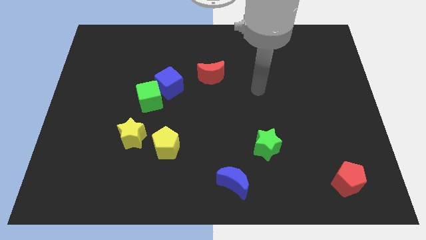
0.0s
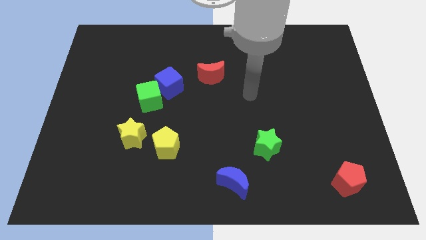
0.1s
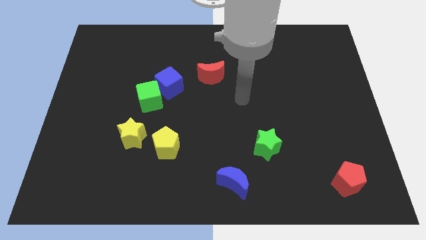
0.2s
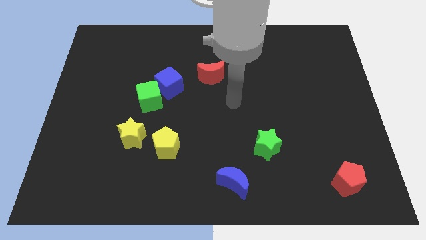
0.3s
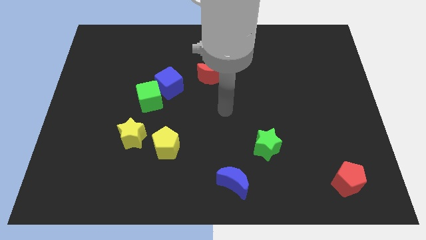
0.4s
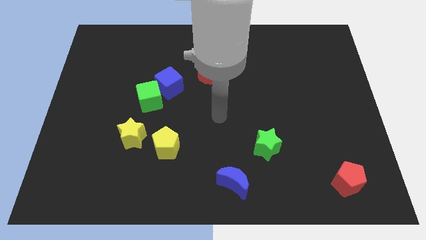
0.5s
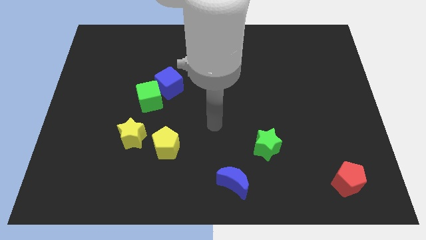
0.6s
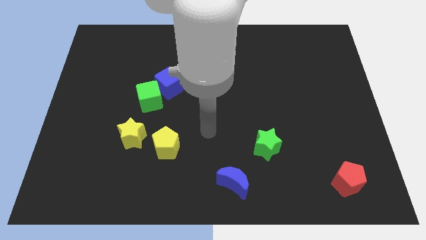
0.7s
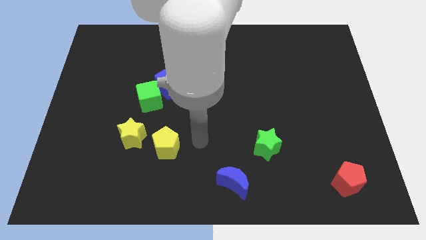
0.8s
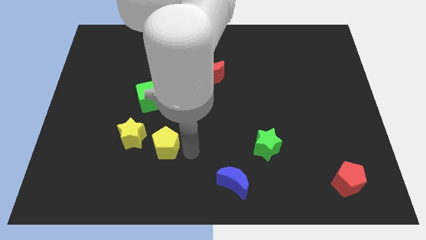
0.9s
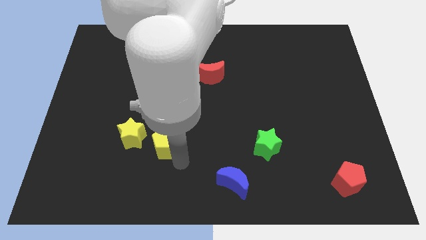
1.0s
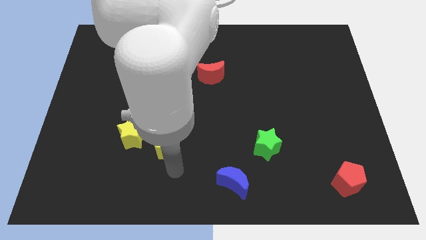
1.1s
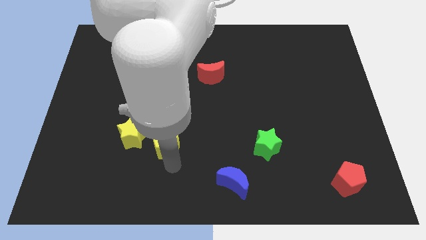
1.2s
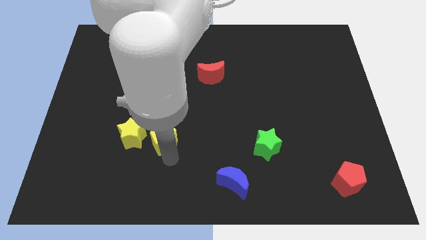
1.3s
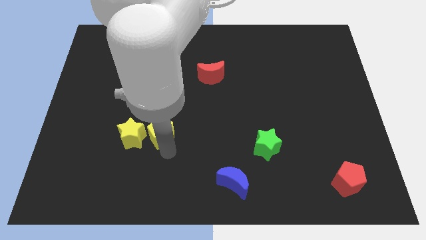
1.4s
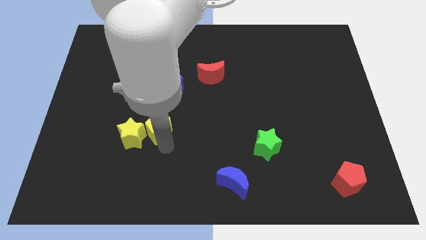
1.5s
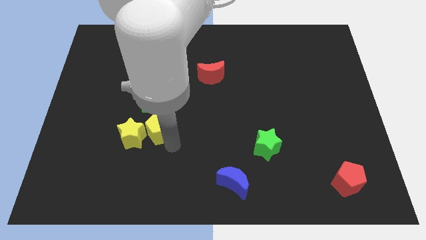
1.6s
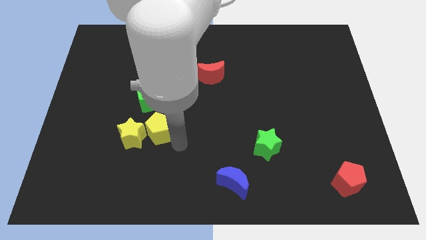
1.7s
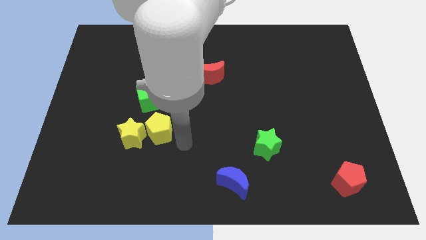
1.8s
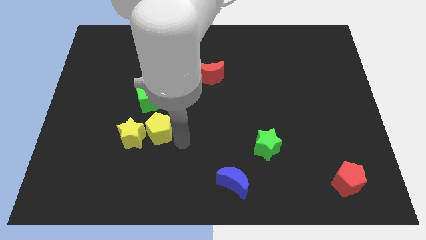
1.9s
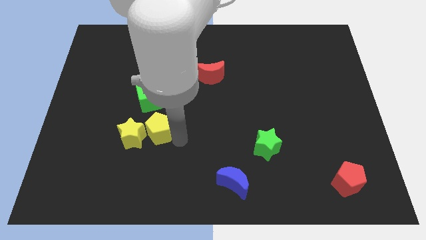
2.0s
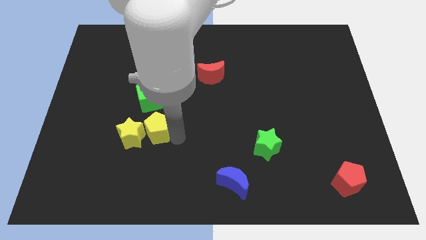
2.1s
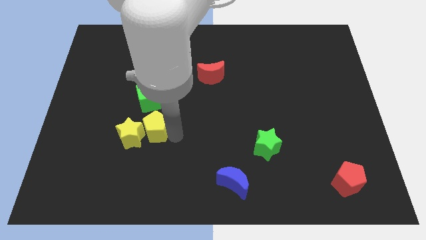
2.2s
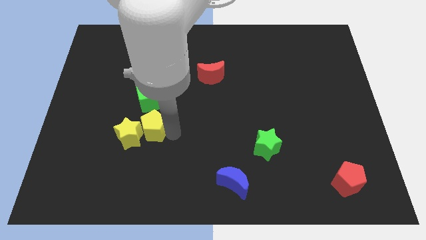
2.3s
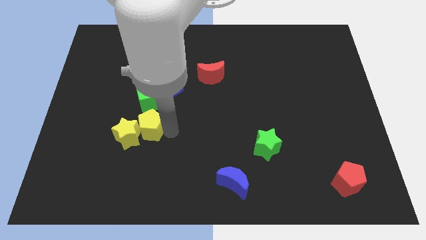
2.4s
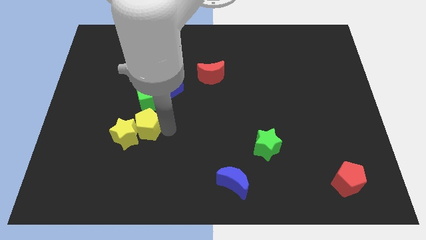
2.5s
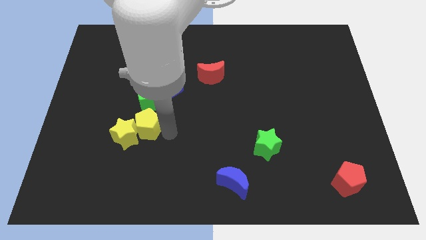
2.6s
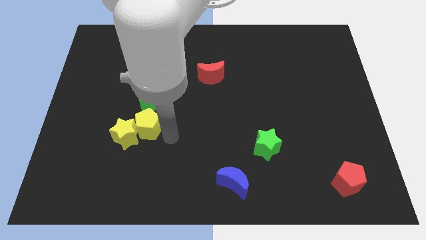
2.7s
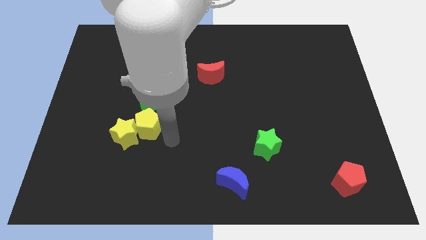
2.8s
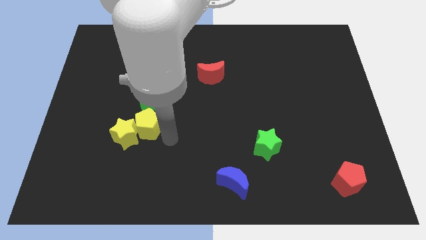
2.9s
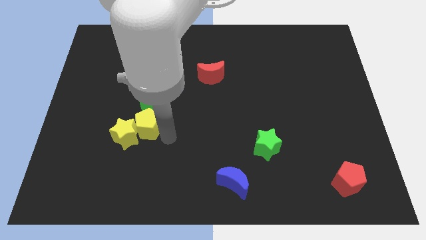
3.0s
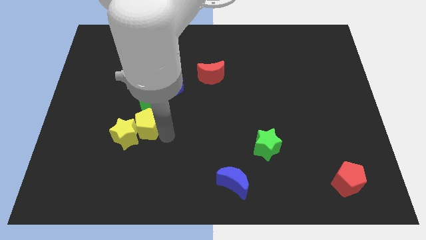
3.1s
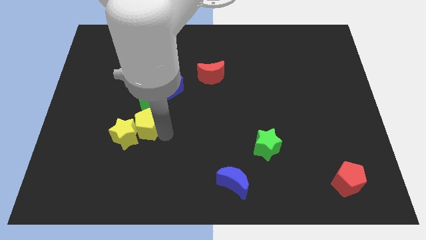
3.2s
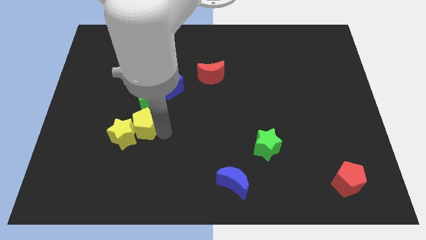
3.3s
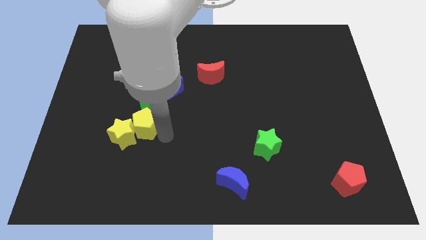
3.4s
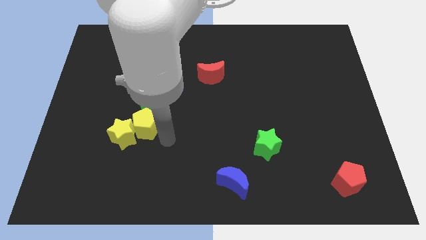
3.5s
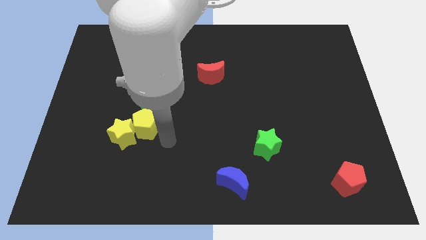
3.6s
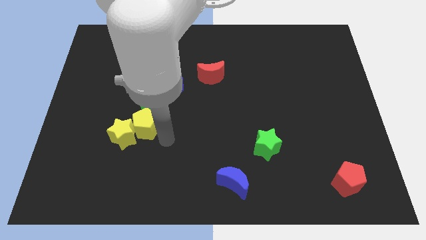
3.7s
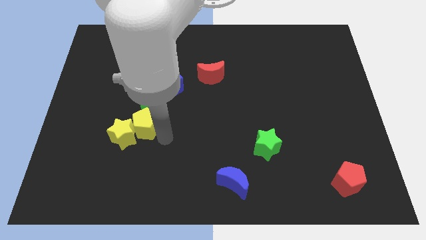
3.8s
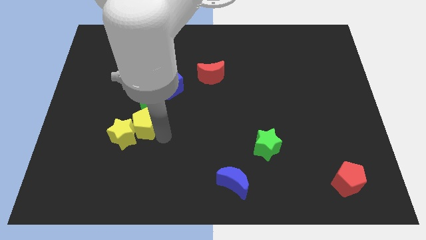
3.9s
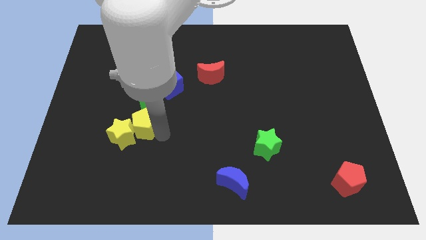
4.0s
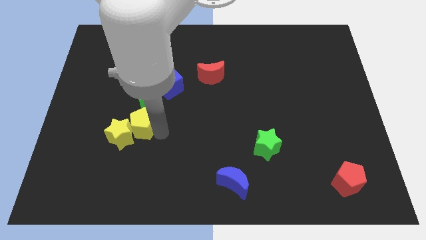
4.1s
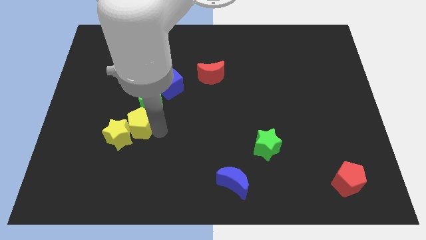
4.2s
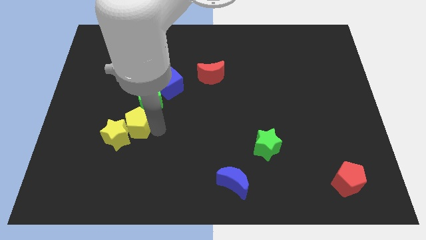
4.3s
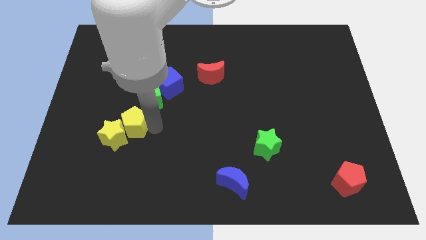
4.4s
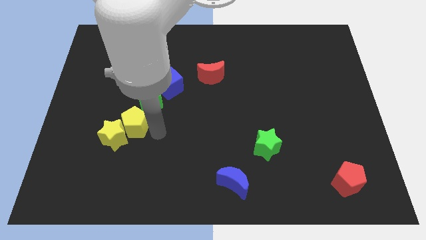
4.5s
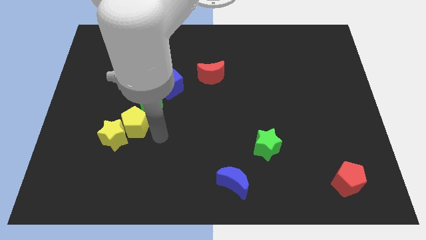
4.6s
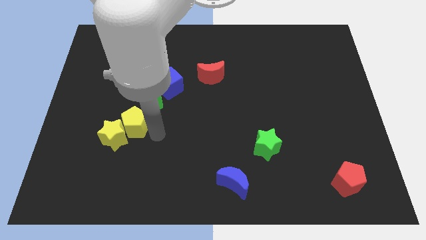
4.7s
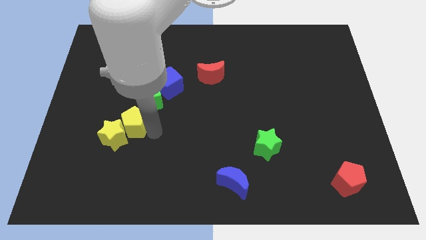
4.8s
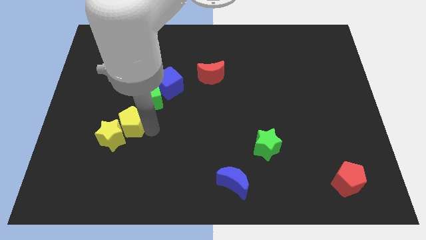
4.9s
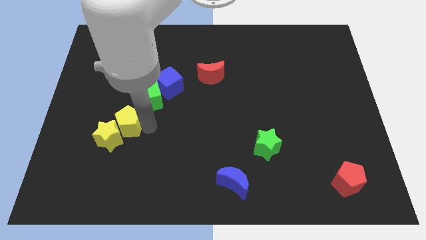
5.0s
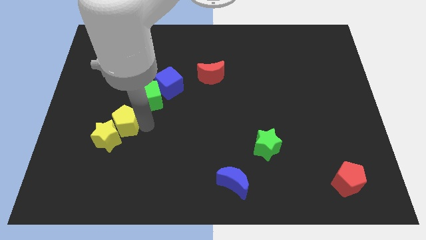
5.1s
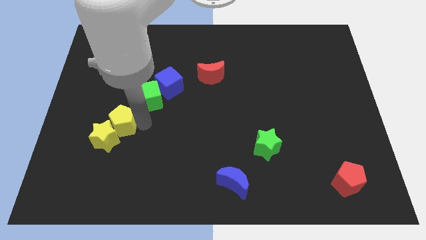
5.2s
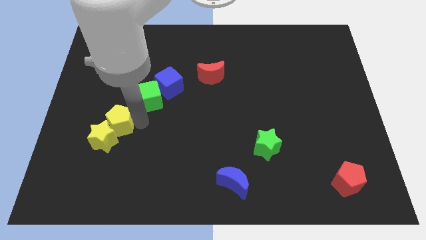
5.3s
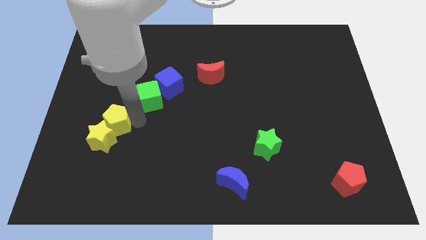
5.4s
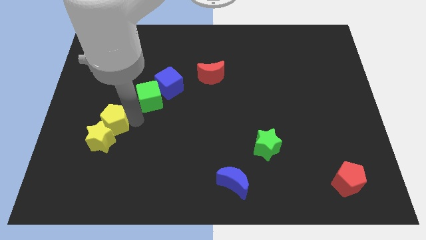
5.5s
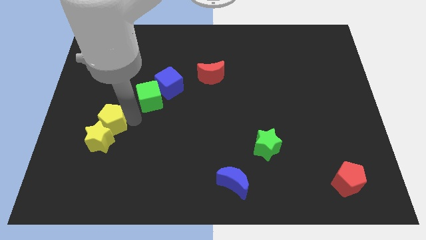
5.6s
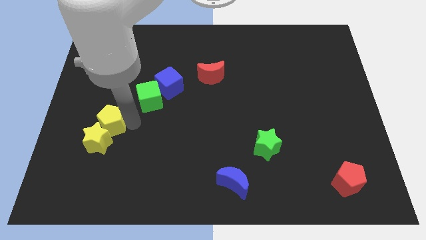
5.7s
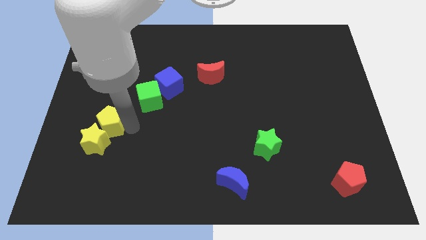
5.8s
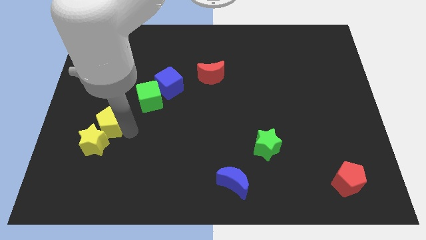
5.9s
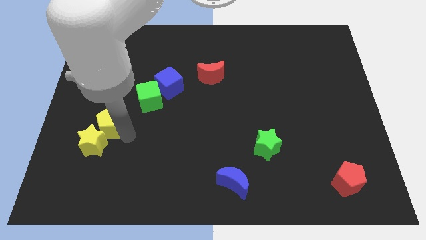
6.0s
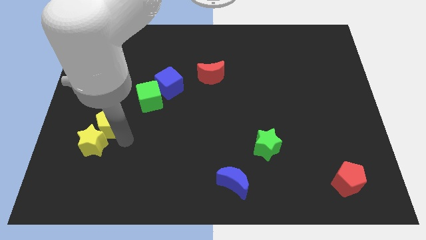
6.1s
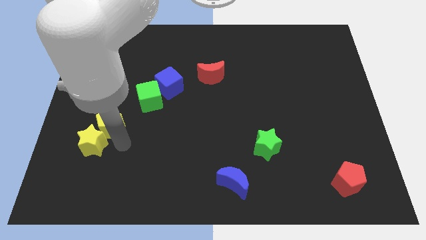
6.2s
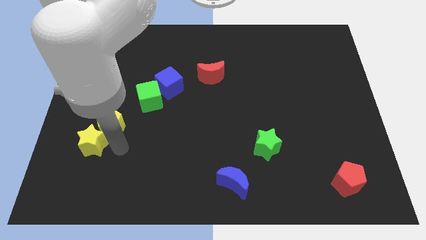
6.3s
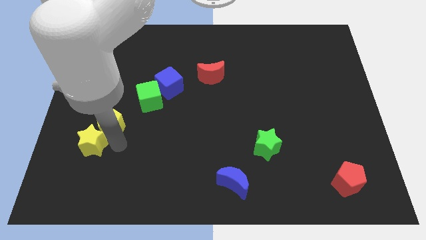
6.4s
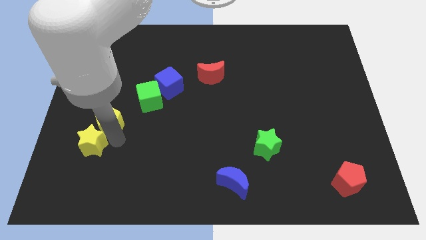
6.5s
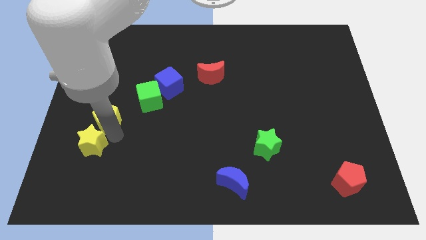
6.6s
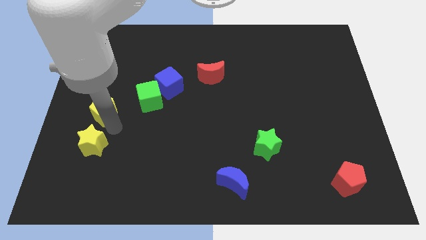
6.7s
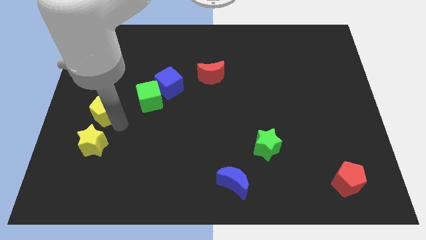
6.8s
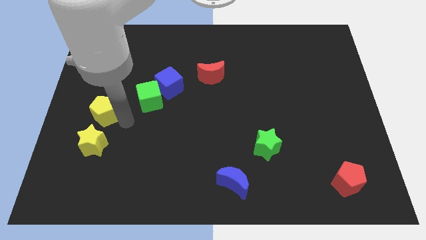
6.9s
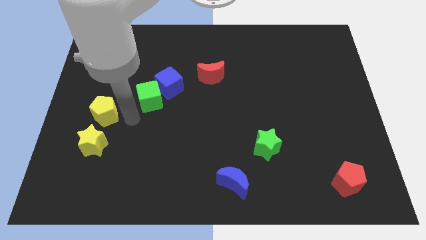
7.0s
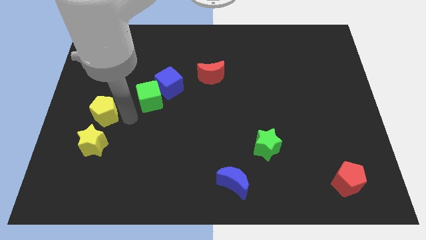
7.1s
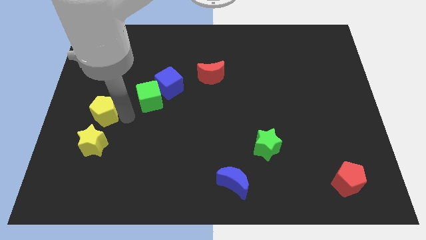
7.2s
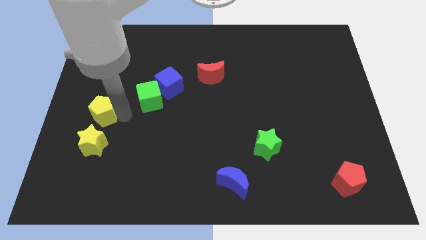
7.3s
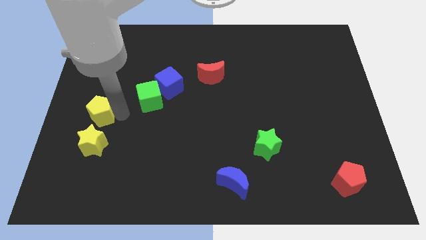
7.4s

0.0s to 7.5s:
put the yellow pentagon to the left side
